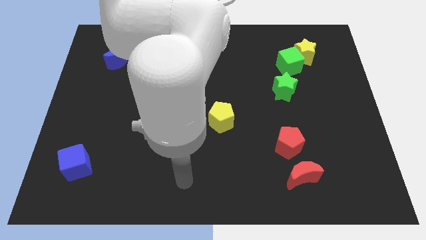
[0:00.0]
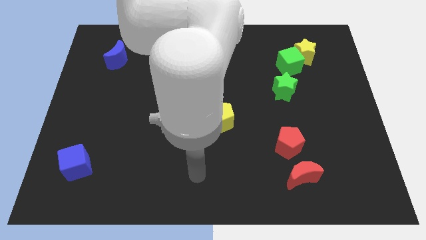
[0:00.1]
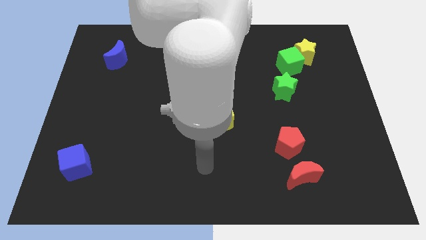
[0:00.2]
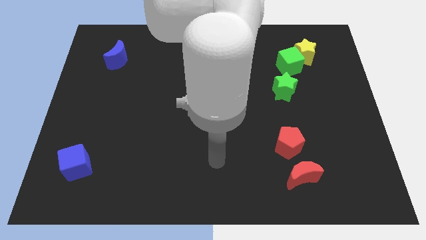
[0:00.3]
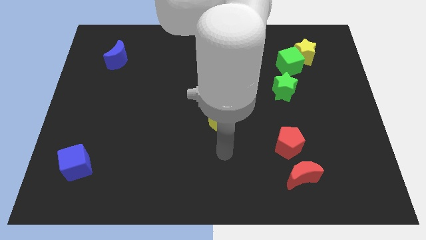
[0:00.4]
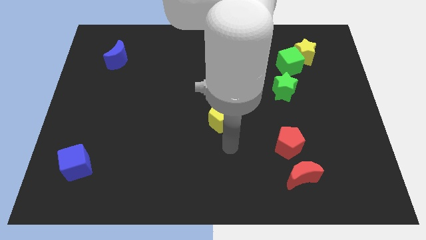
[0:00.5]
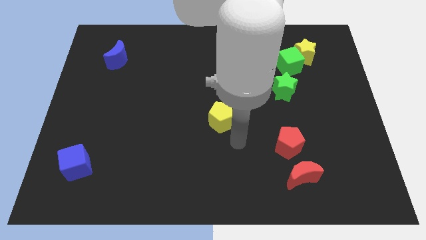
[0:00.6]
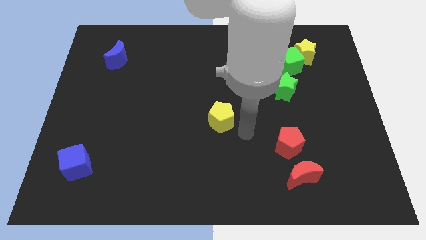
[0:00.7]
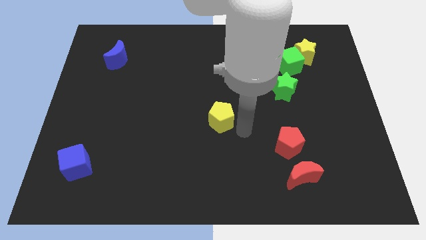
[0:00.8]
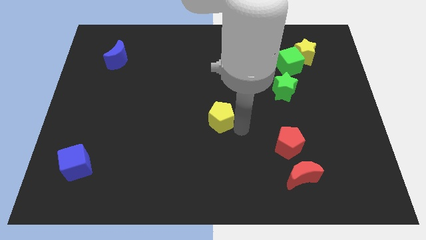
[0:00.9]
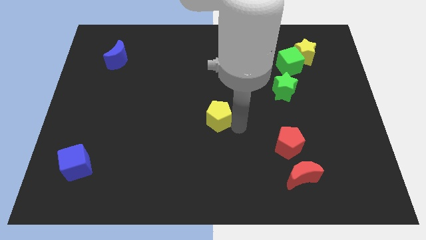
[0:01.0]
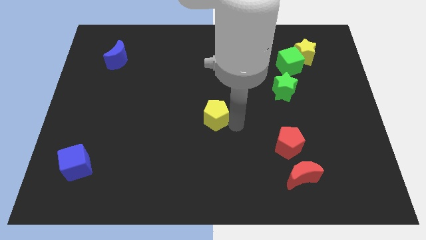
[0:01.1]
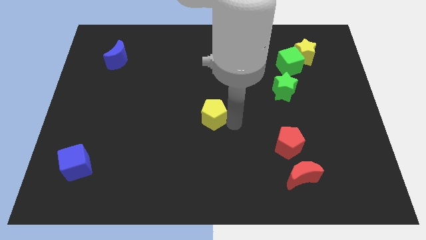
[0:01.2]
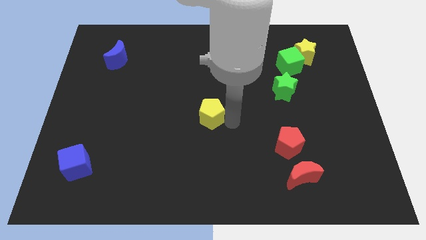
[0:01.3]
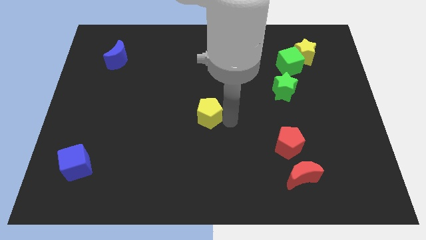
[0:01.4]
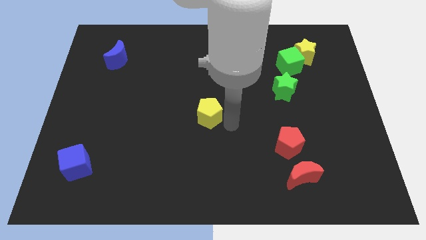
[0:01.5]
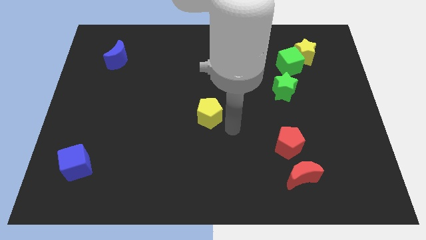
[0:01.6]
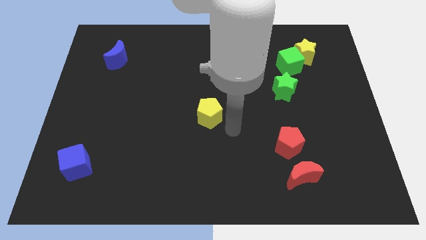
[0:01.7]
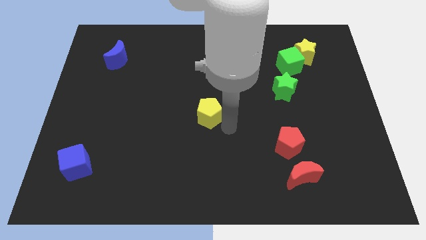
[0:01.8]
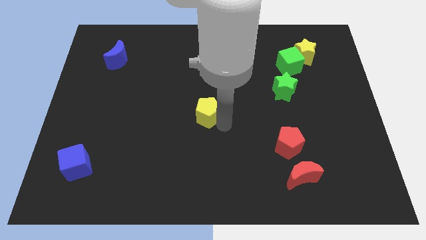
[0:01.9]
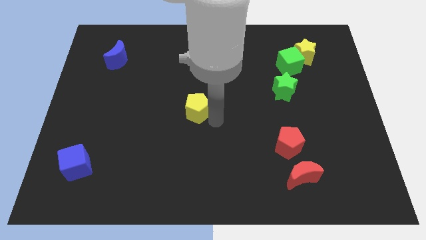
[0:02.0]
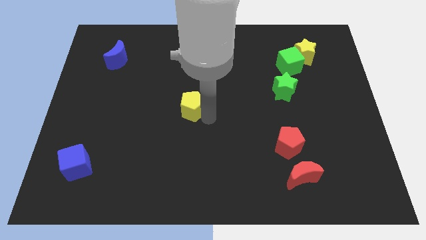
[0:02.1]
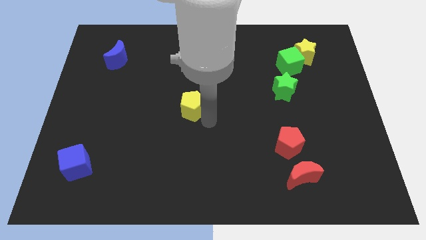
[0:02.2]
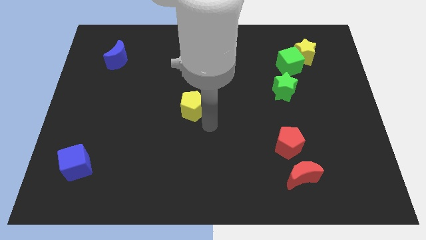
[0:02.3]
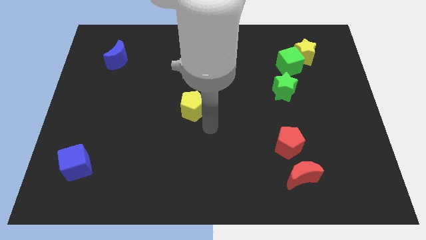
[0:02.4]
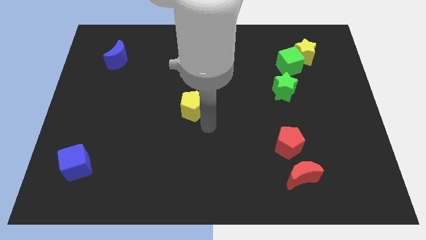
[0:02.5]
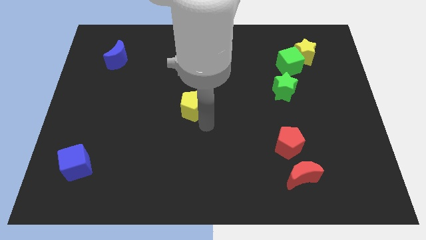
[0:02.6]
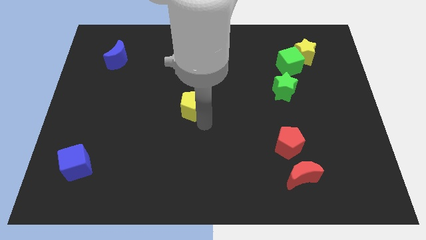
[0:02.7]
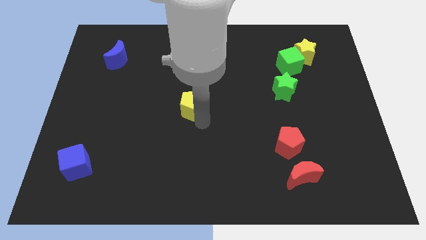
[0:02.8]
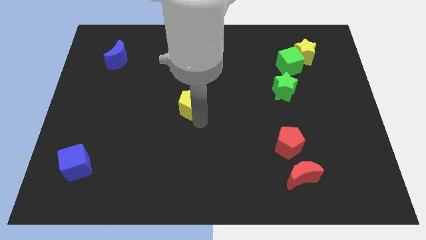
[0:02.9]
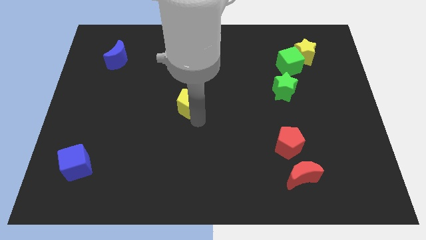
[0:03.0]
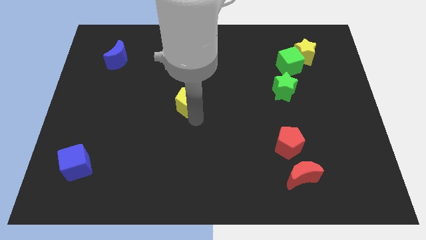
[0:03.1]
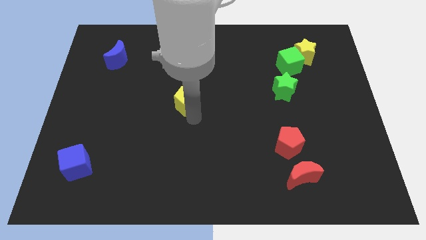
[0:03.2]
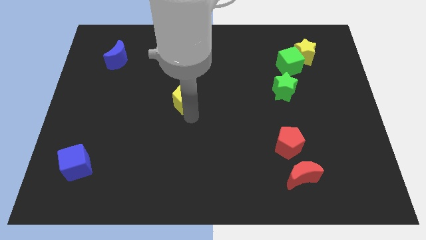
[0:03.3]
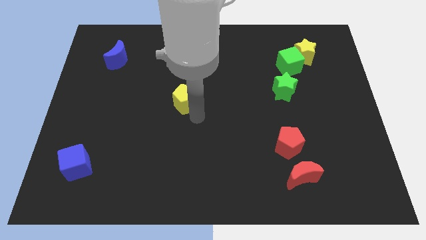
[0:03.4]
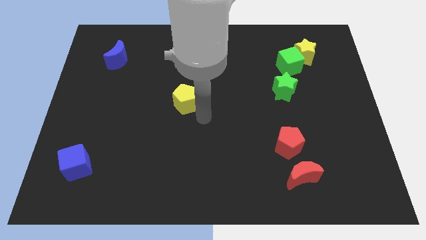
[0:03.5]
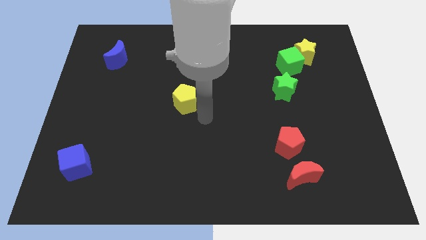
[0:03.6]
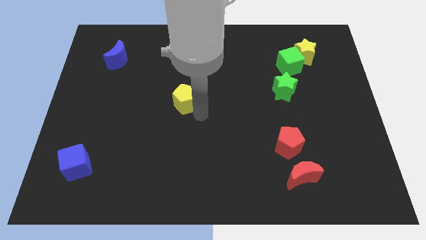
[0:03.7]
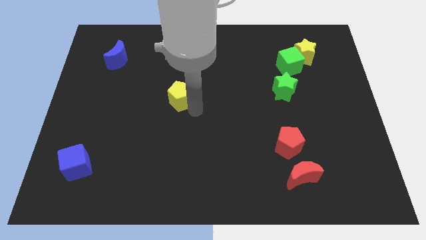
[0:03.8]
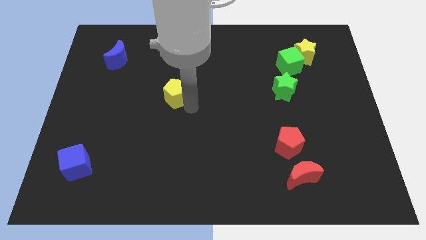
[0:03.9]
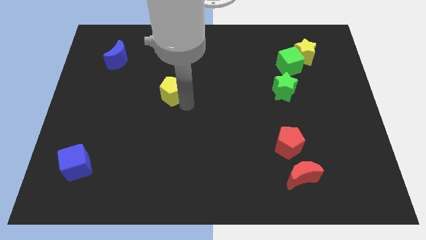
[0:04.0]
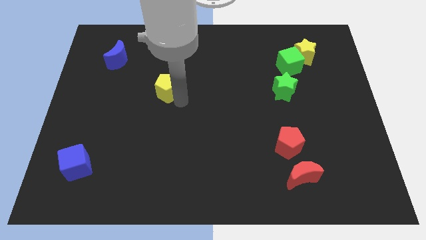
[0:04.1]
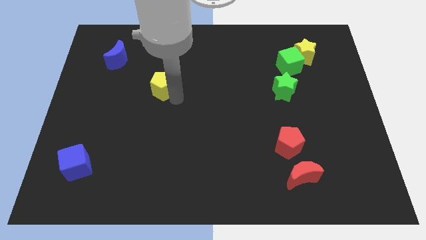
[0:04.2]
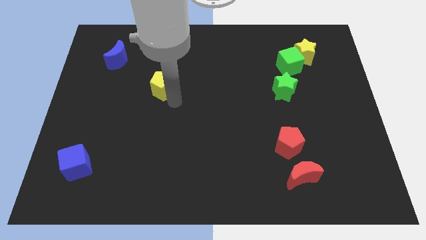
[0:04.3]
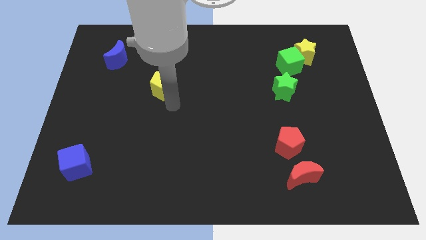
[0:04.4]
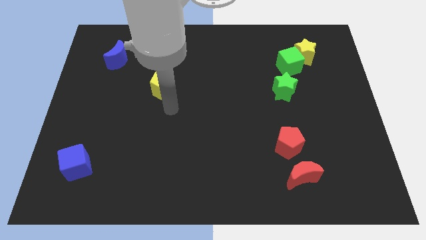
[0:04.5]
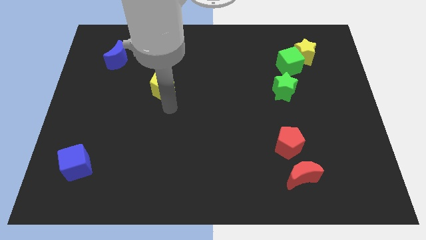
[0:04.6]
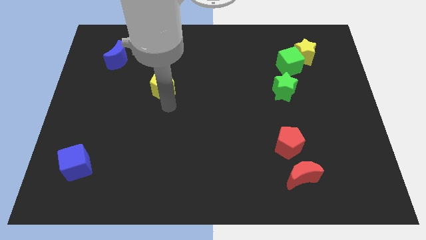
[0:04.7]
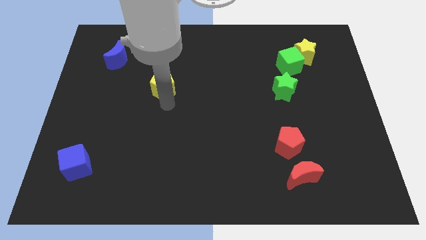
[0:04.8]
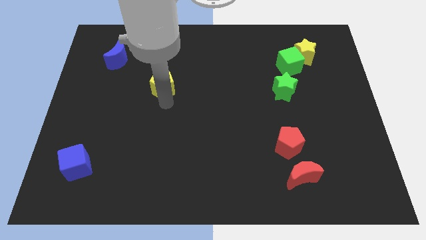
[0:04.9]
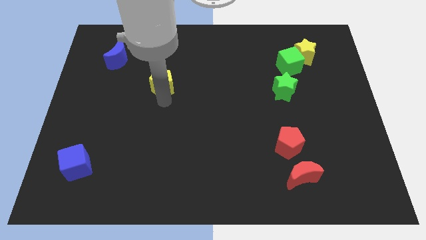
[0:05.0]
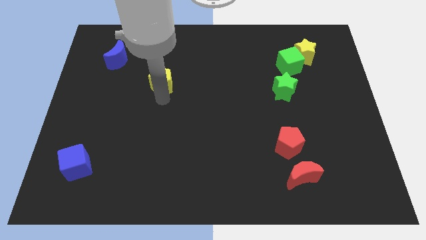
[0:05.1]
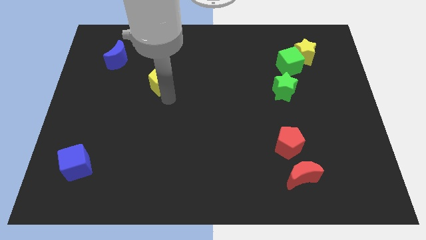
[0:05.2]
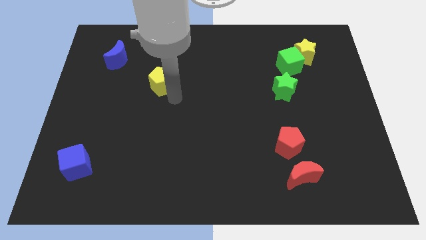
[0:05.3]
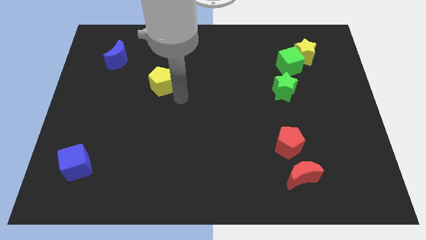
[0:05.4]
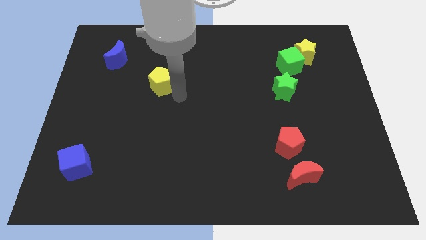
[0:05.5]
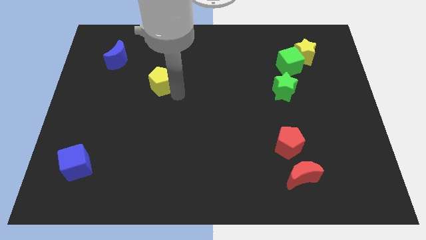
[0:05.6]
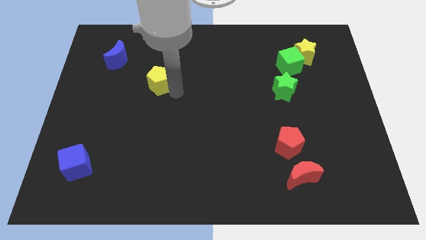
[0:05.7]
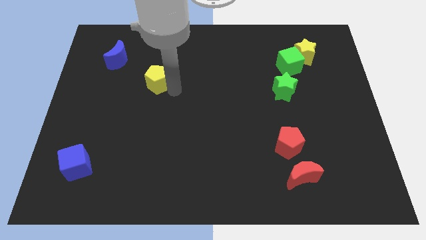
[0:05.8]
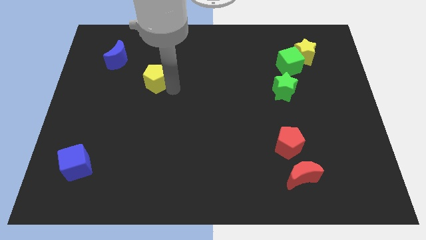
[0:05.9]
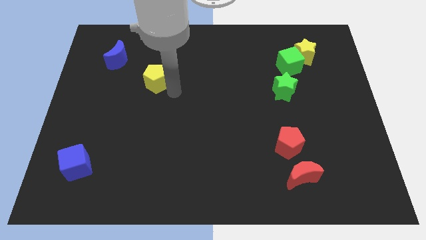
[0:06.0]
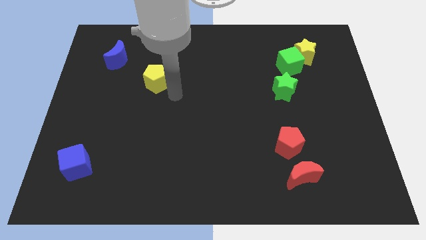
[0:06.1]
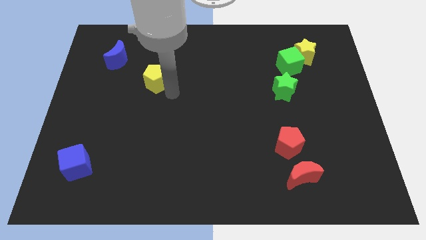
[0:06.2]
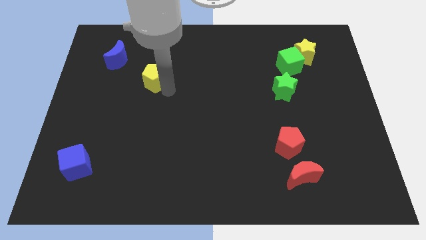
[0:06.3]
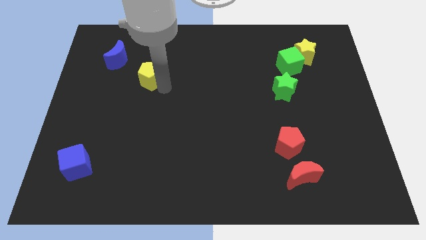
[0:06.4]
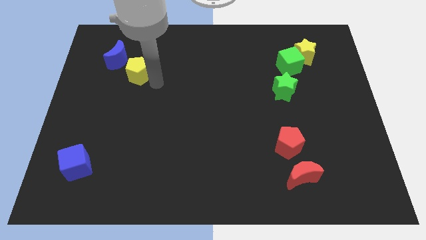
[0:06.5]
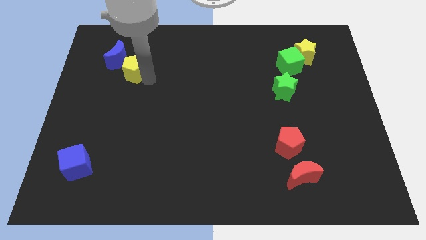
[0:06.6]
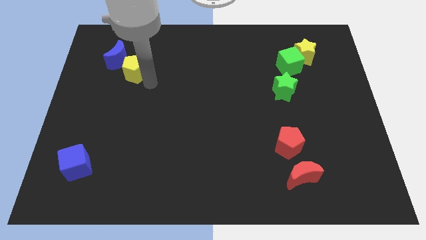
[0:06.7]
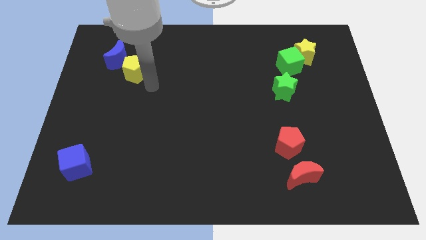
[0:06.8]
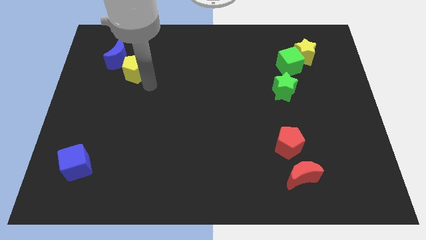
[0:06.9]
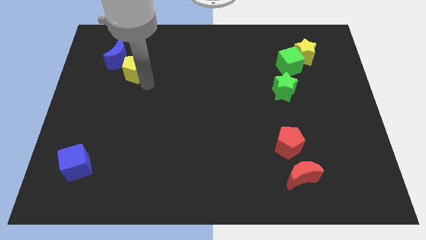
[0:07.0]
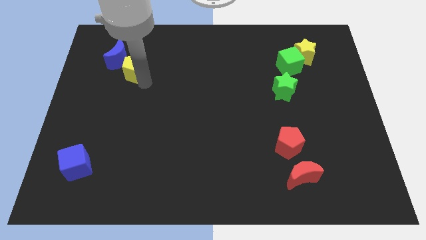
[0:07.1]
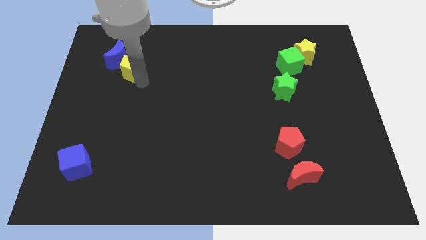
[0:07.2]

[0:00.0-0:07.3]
put the yellow pentagon close to the blue moon
